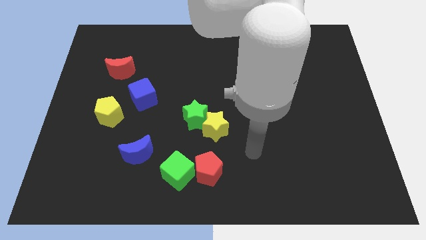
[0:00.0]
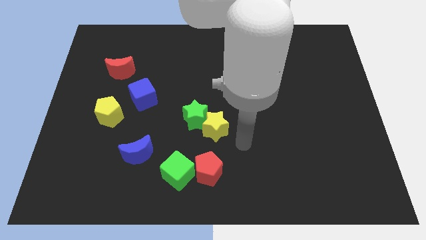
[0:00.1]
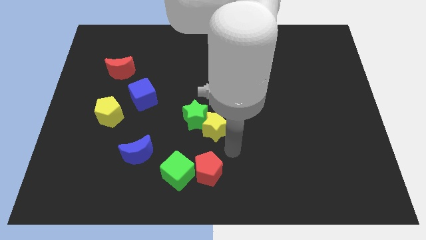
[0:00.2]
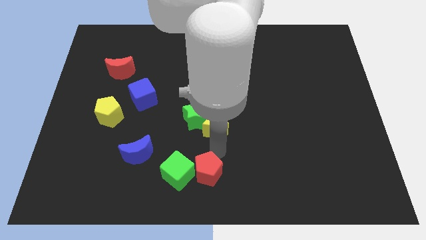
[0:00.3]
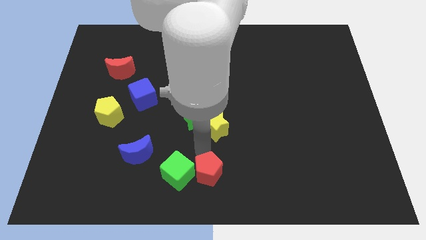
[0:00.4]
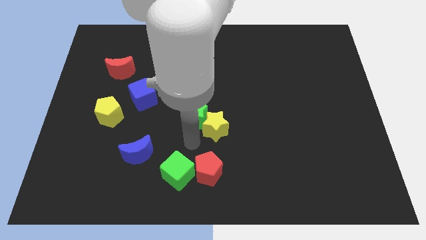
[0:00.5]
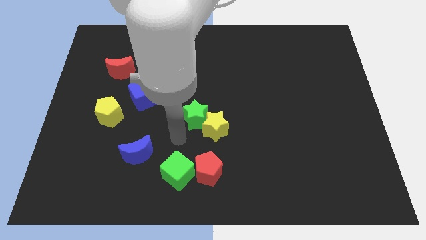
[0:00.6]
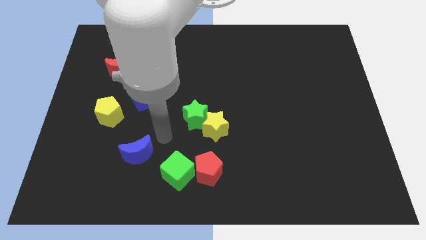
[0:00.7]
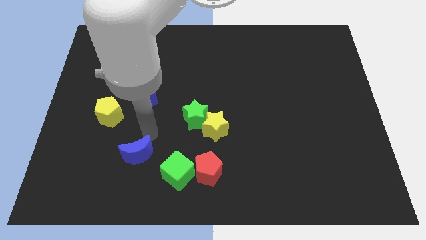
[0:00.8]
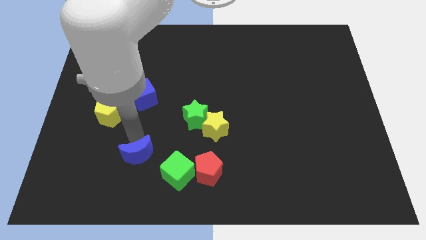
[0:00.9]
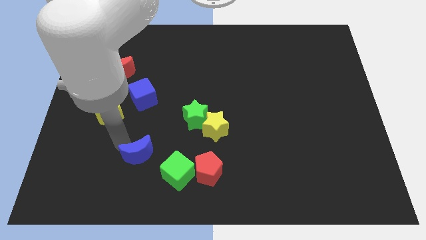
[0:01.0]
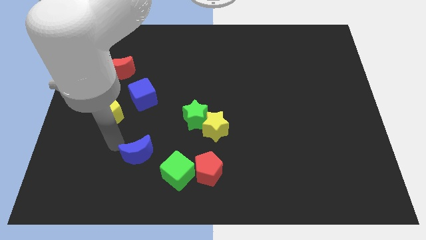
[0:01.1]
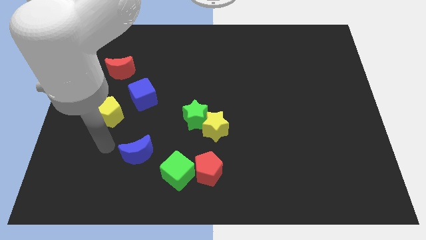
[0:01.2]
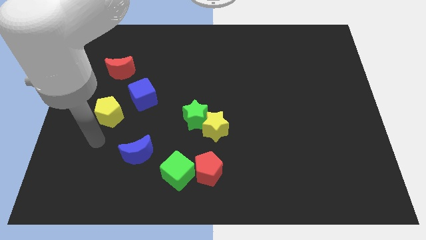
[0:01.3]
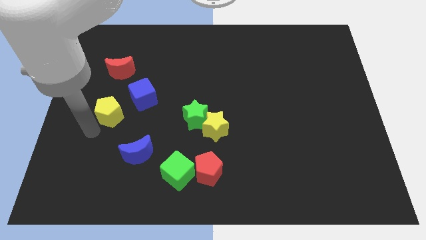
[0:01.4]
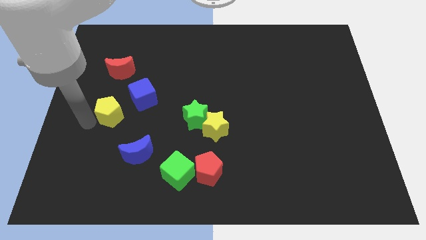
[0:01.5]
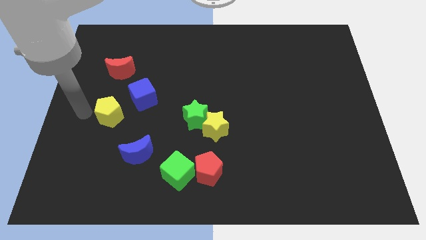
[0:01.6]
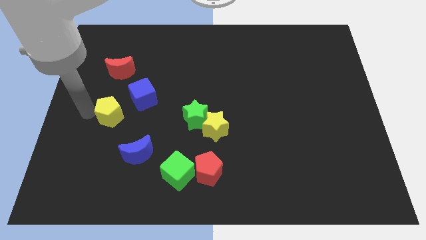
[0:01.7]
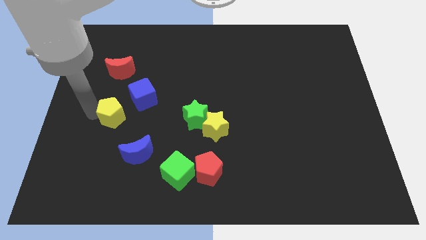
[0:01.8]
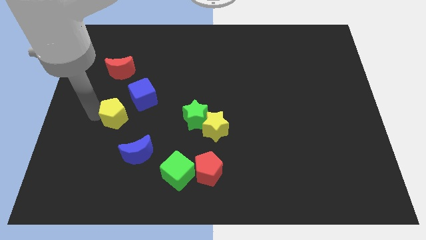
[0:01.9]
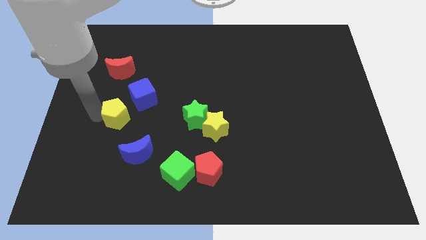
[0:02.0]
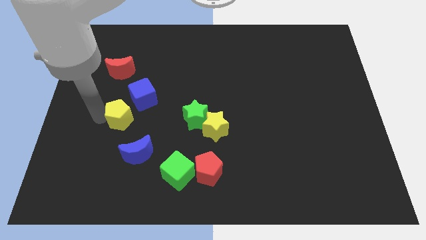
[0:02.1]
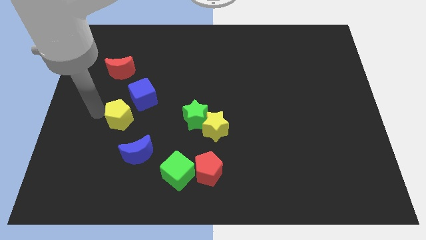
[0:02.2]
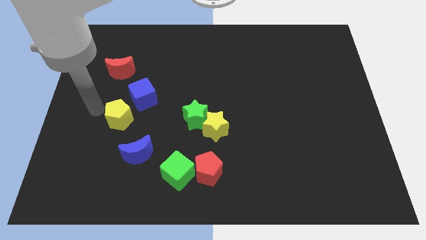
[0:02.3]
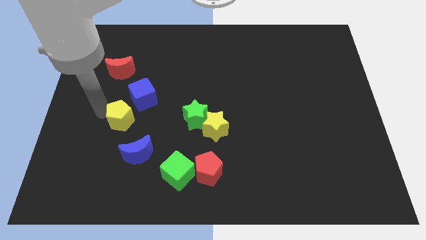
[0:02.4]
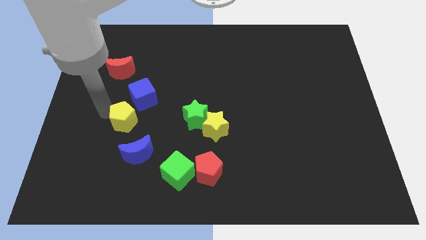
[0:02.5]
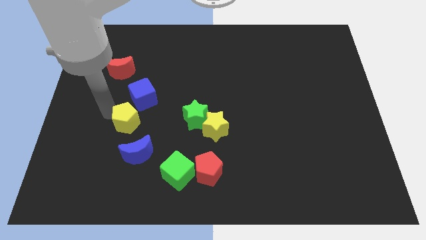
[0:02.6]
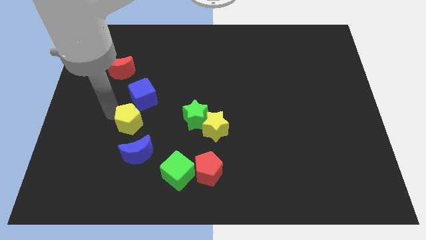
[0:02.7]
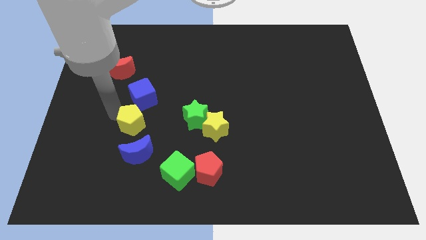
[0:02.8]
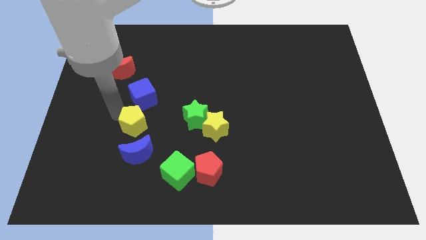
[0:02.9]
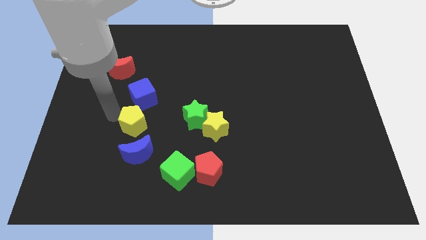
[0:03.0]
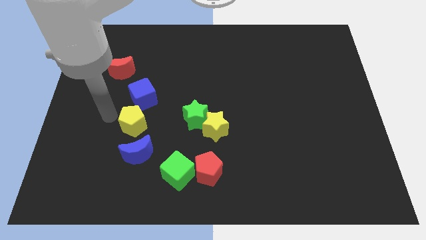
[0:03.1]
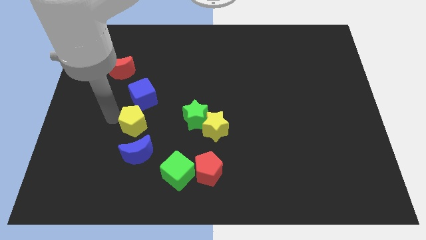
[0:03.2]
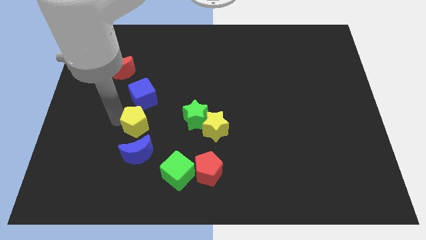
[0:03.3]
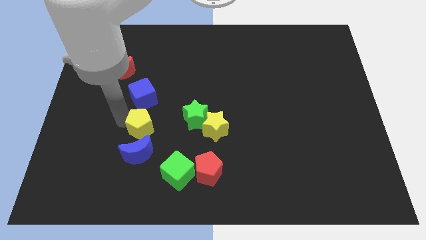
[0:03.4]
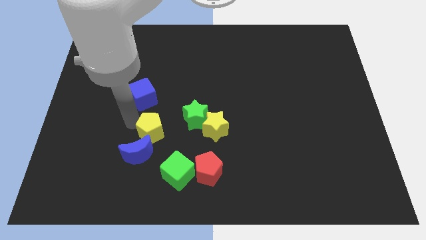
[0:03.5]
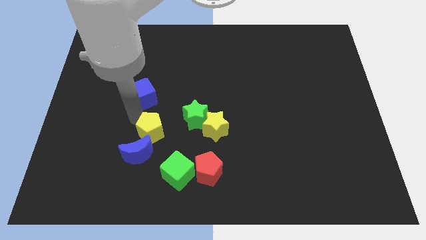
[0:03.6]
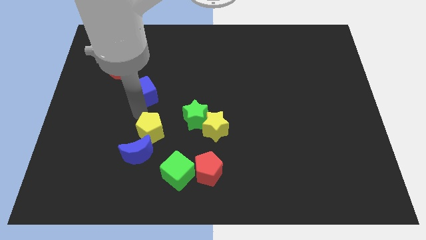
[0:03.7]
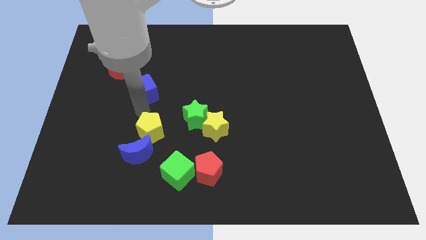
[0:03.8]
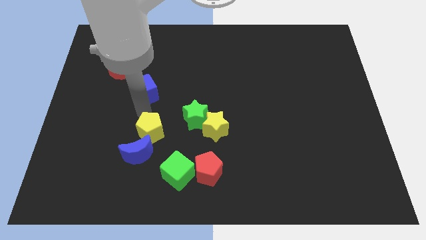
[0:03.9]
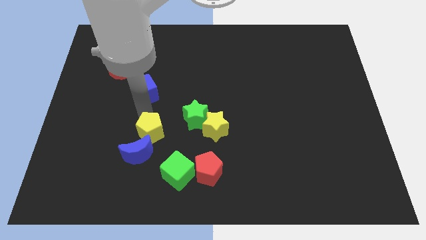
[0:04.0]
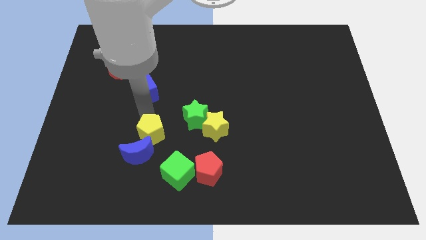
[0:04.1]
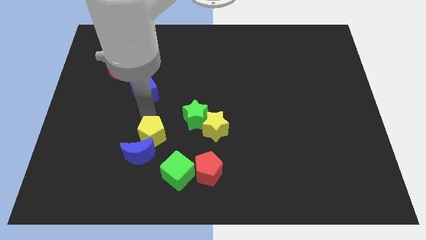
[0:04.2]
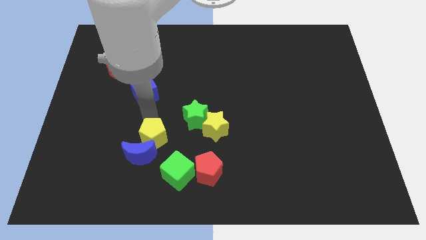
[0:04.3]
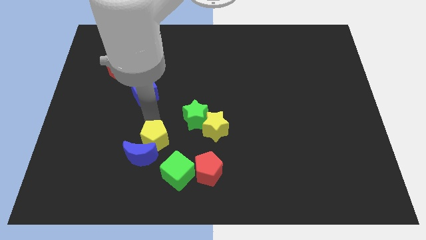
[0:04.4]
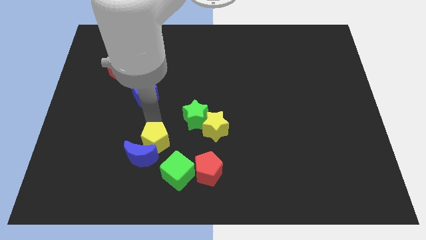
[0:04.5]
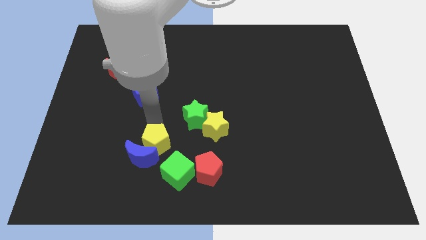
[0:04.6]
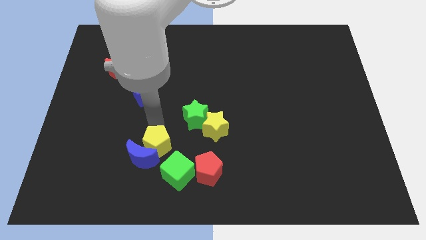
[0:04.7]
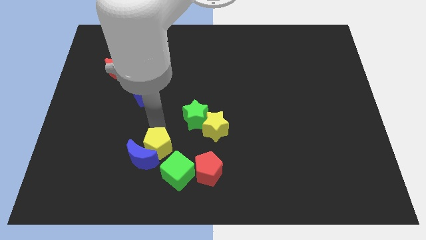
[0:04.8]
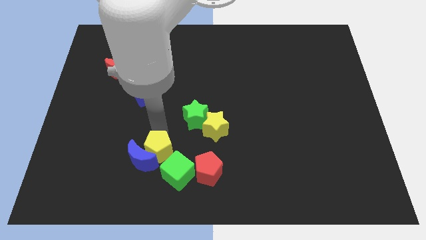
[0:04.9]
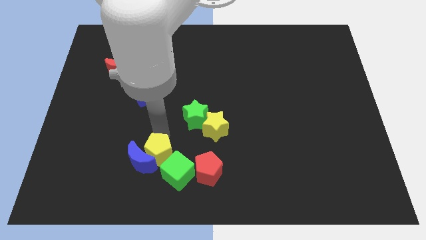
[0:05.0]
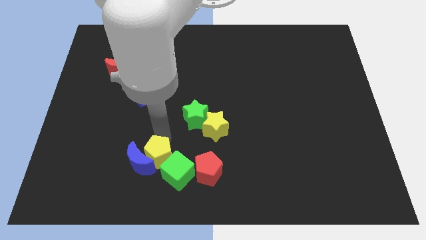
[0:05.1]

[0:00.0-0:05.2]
put the yellow pentagon towards the green cube

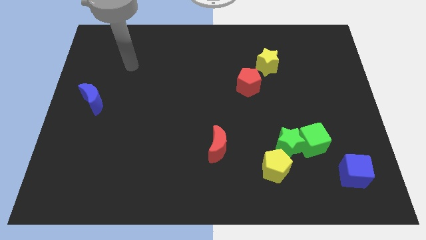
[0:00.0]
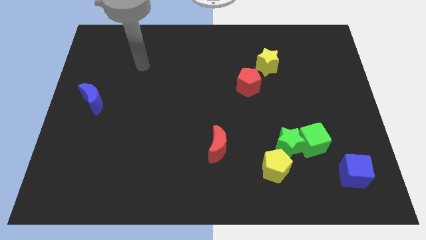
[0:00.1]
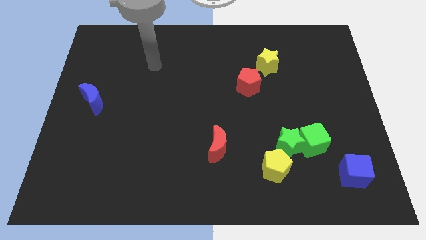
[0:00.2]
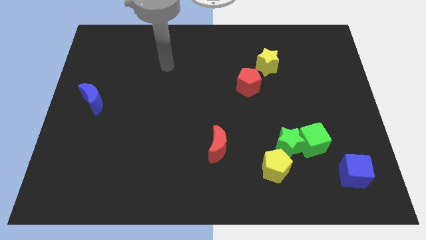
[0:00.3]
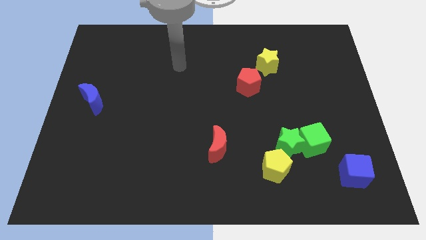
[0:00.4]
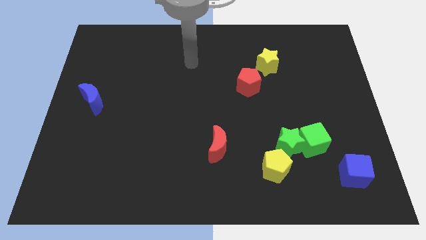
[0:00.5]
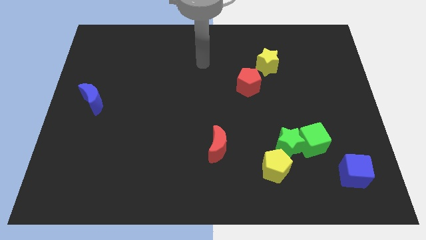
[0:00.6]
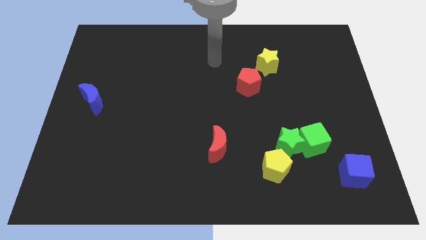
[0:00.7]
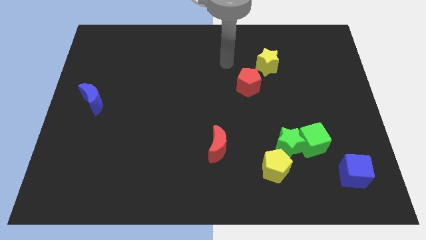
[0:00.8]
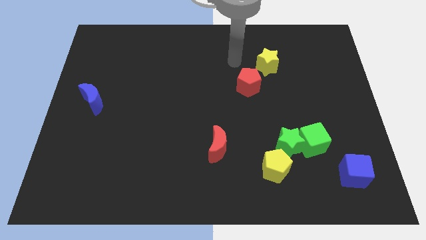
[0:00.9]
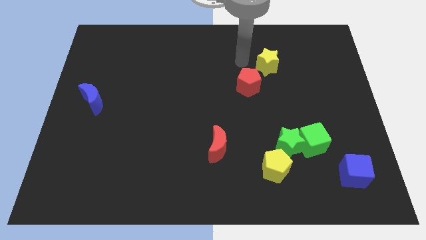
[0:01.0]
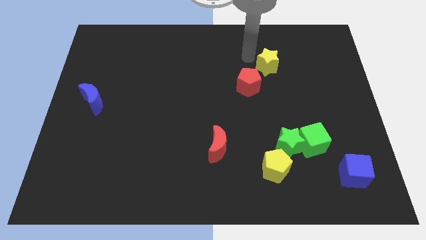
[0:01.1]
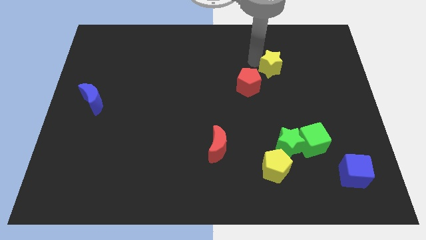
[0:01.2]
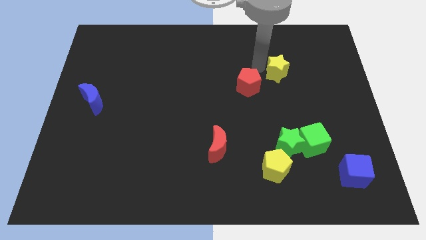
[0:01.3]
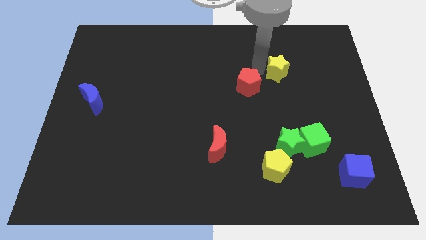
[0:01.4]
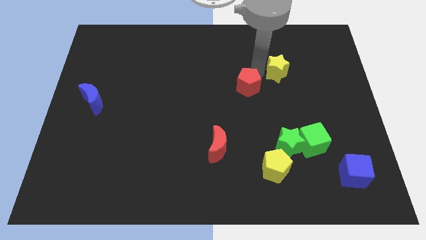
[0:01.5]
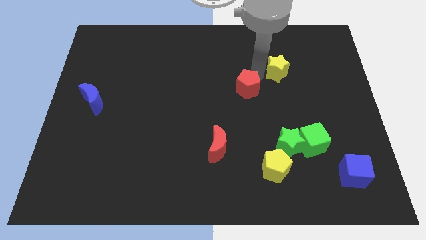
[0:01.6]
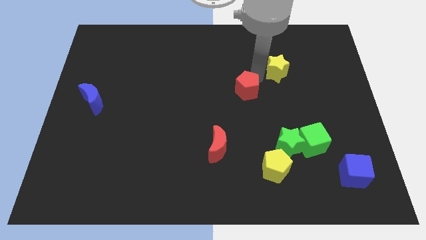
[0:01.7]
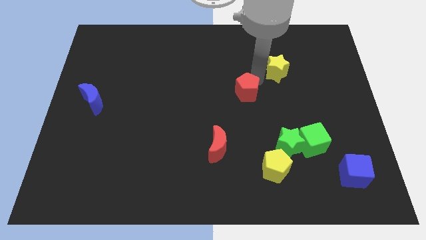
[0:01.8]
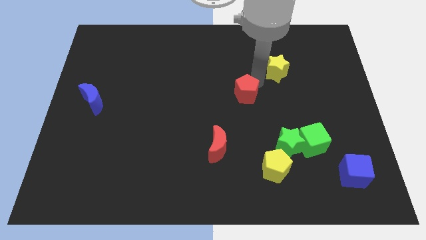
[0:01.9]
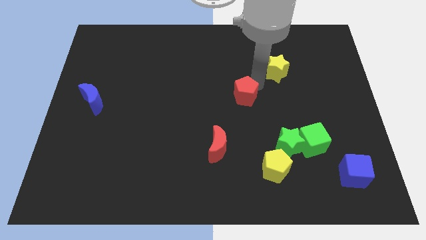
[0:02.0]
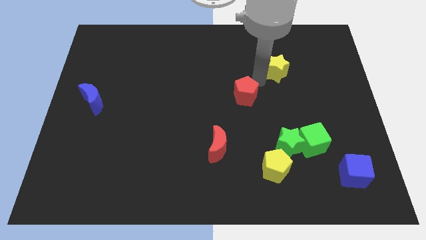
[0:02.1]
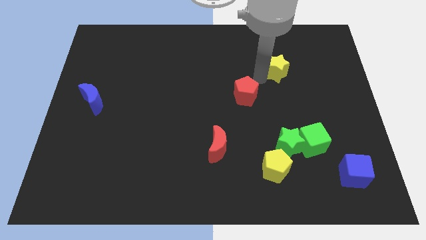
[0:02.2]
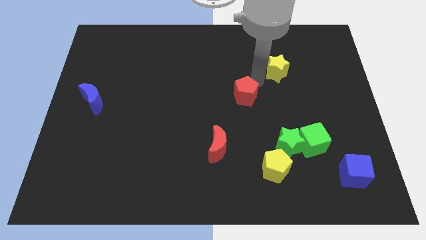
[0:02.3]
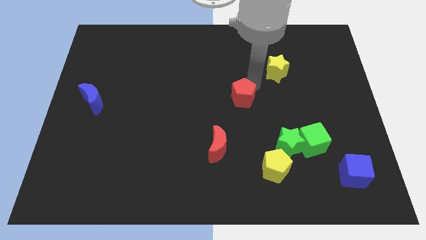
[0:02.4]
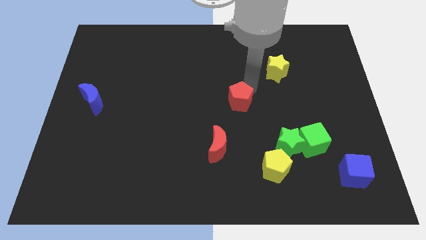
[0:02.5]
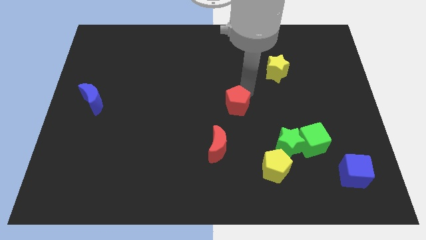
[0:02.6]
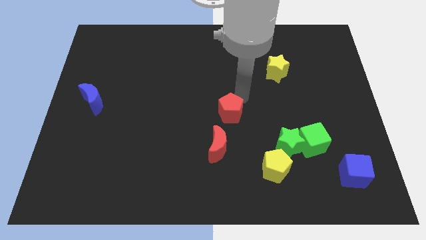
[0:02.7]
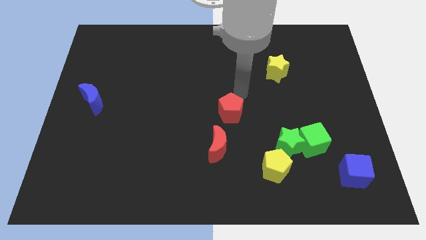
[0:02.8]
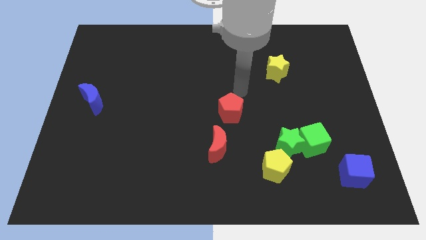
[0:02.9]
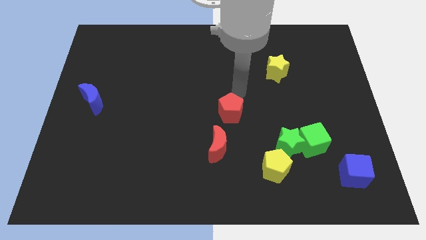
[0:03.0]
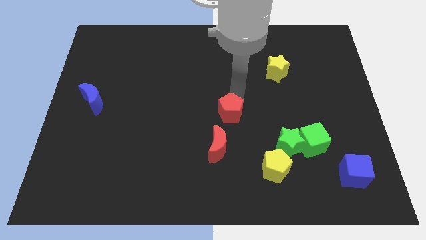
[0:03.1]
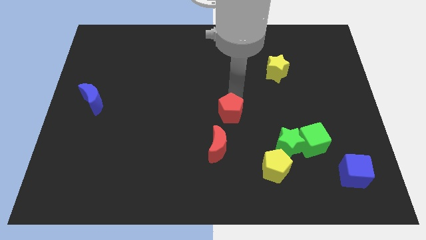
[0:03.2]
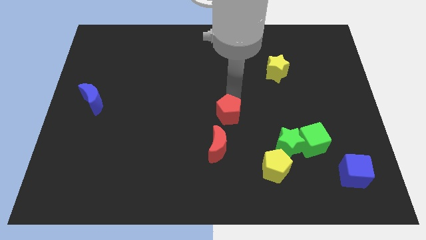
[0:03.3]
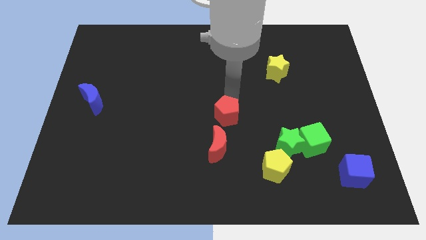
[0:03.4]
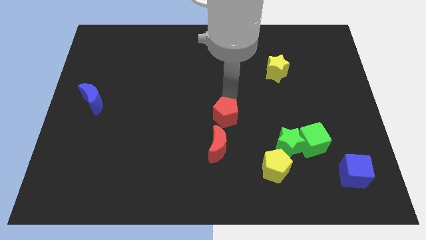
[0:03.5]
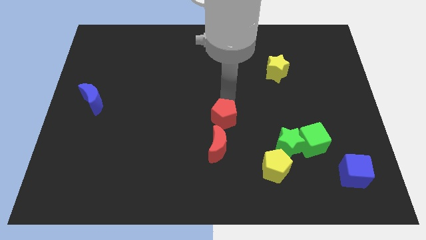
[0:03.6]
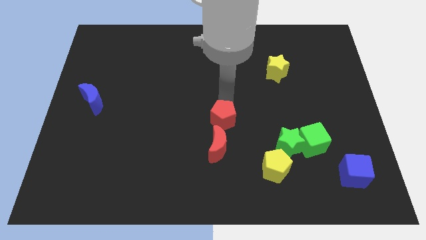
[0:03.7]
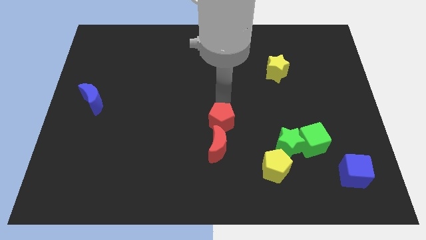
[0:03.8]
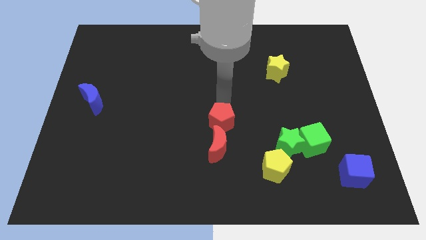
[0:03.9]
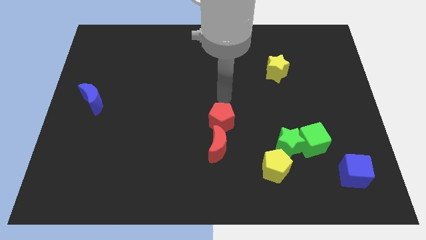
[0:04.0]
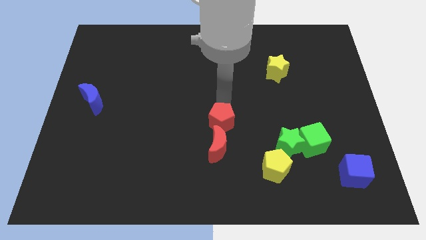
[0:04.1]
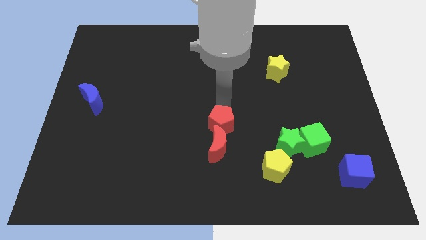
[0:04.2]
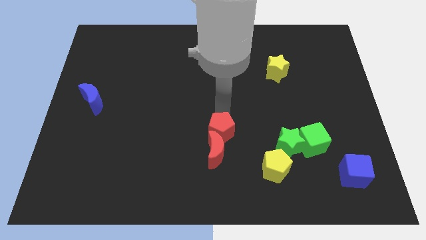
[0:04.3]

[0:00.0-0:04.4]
move the red pentagon next to the red moon
